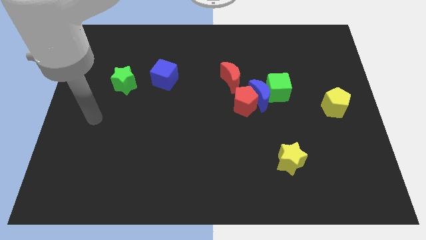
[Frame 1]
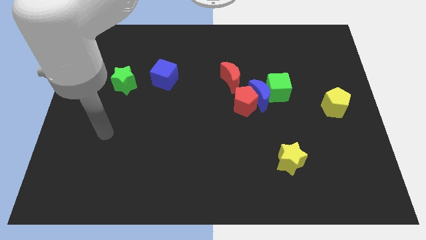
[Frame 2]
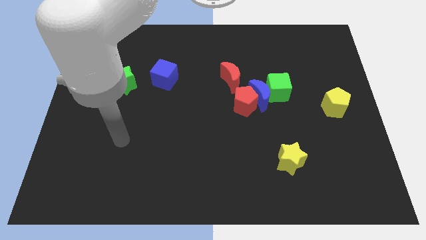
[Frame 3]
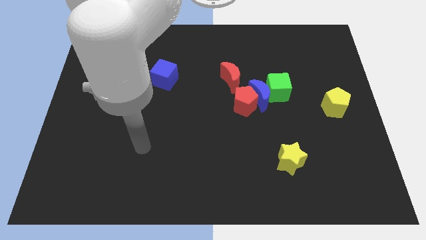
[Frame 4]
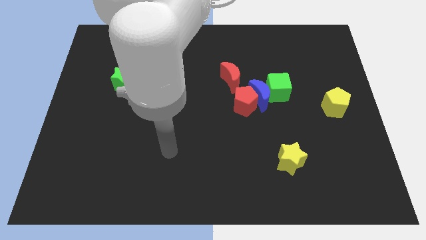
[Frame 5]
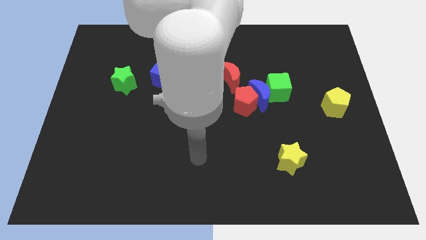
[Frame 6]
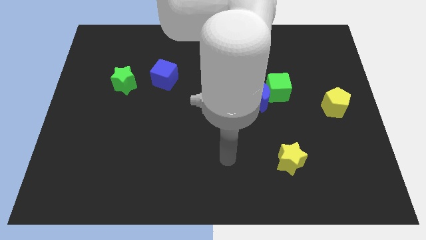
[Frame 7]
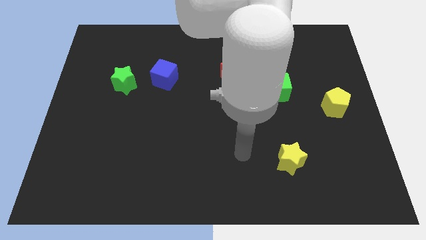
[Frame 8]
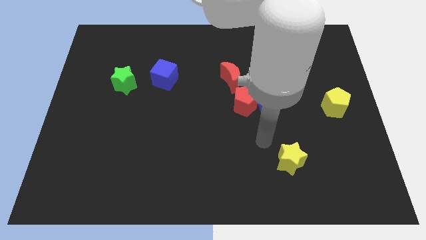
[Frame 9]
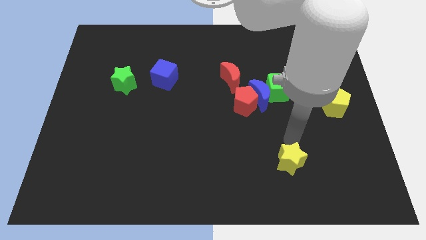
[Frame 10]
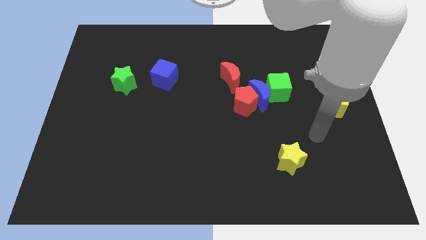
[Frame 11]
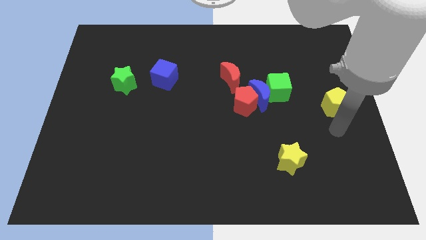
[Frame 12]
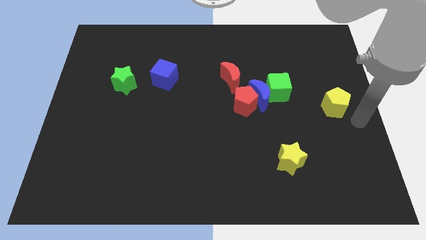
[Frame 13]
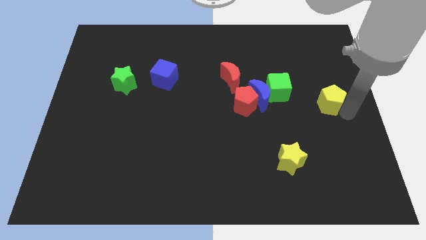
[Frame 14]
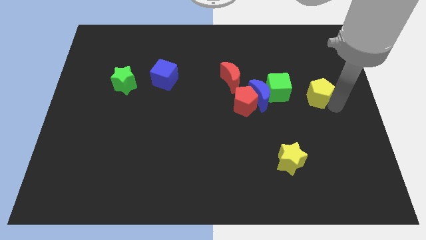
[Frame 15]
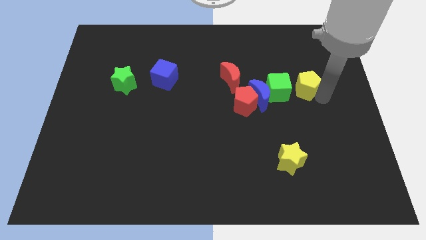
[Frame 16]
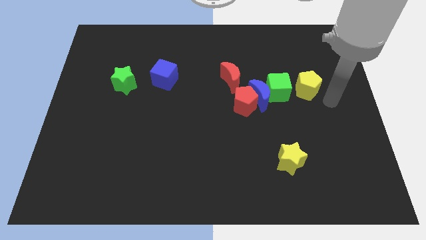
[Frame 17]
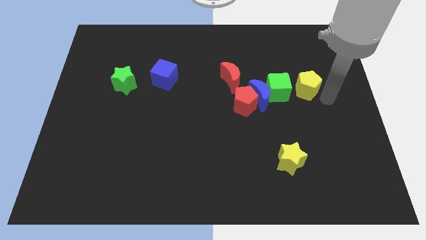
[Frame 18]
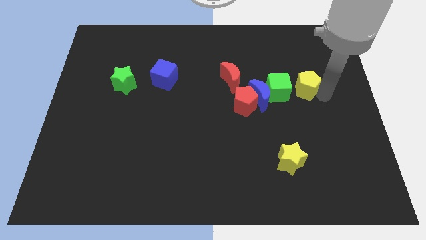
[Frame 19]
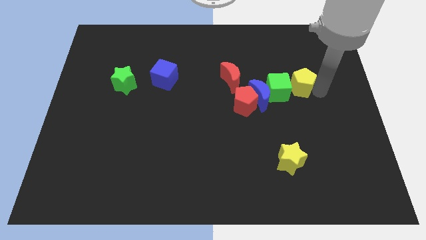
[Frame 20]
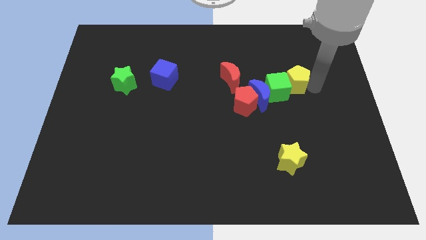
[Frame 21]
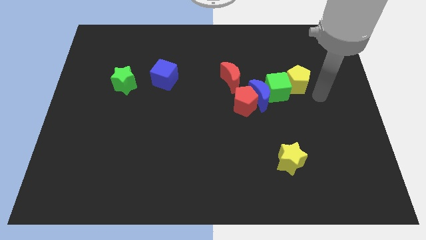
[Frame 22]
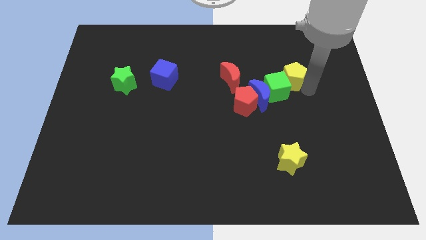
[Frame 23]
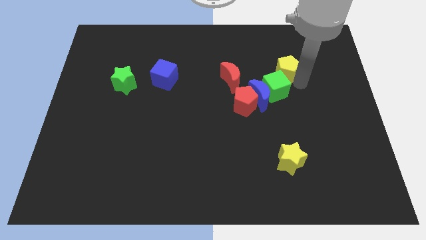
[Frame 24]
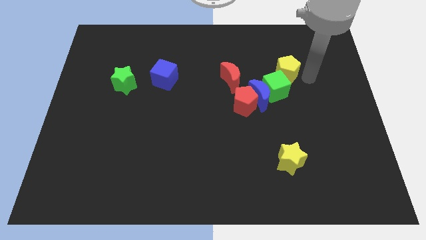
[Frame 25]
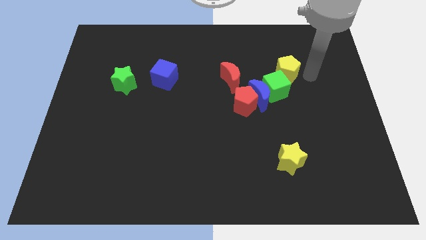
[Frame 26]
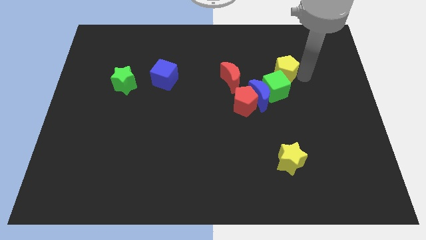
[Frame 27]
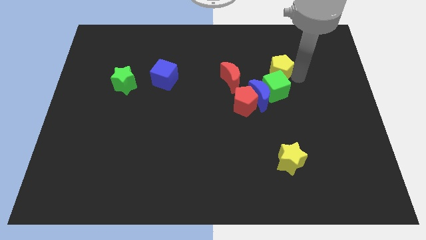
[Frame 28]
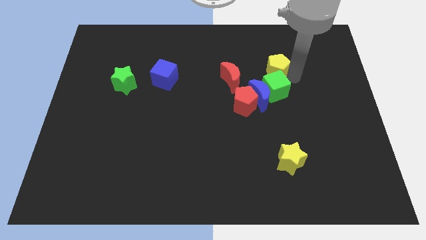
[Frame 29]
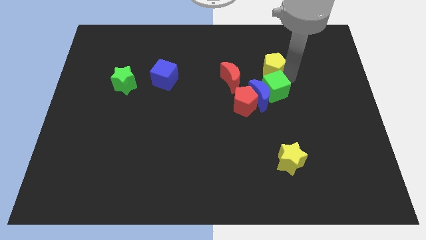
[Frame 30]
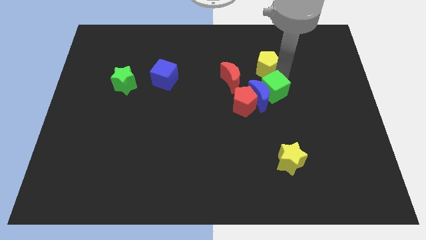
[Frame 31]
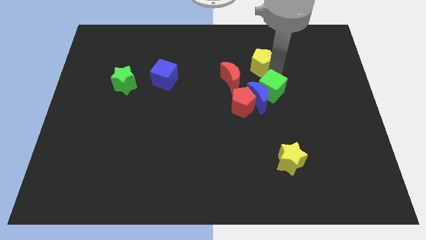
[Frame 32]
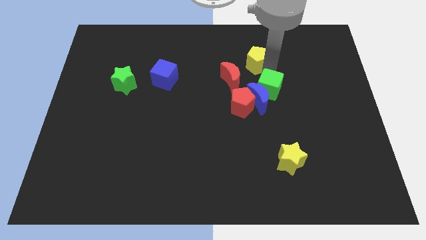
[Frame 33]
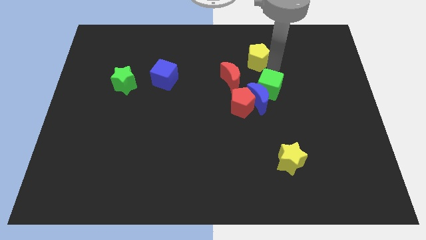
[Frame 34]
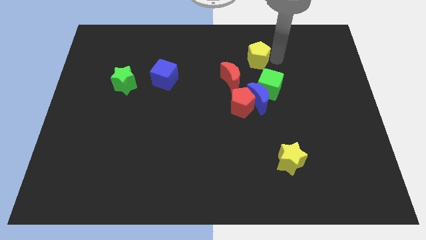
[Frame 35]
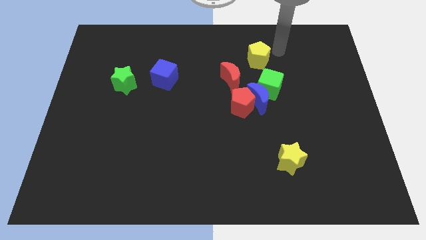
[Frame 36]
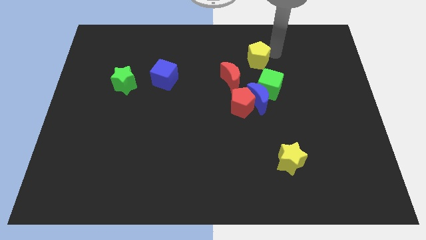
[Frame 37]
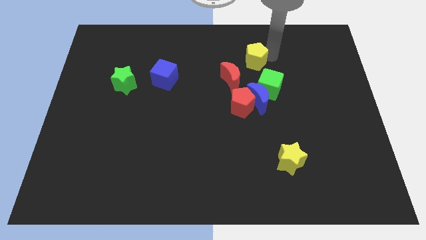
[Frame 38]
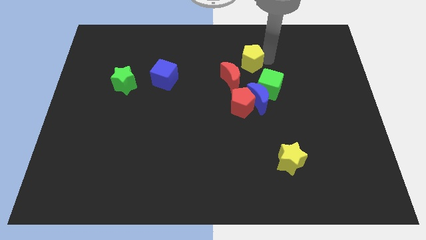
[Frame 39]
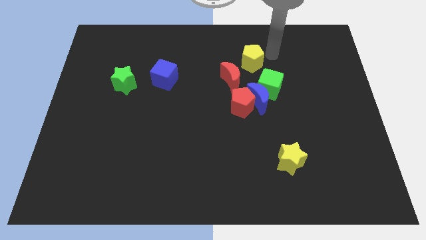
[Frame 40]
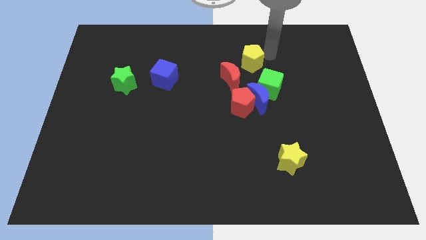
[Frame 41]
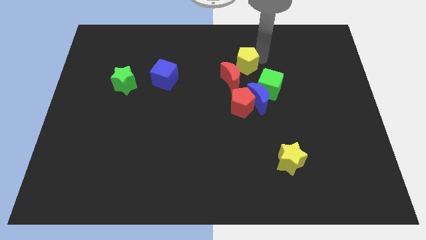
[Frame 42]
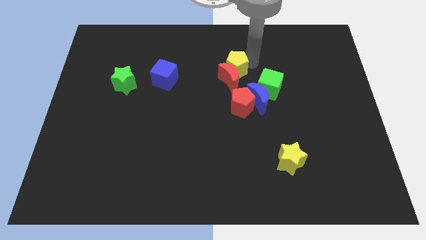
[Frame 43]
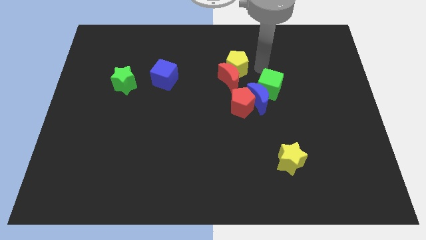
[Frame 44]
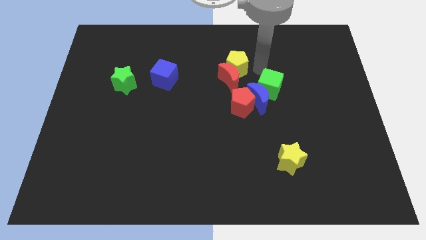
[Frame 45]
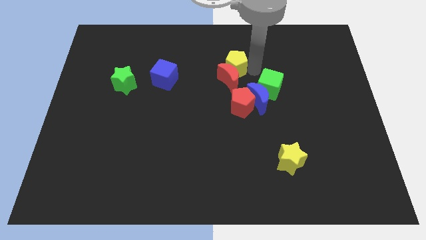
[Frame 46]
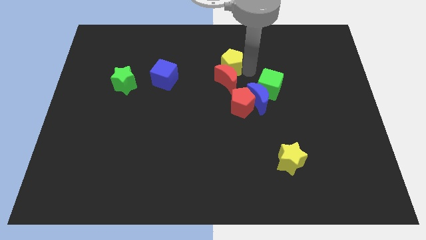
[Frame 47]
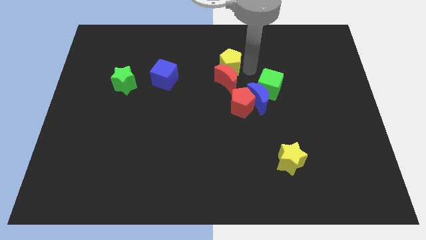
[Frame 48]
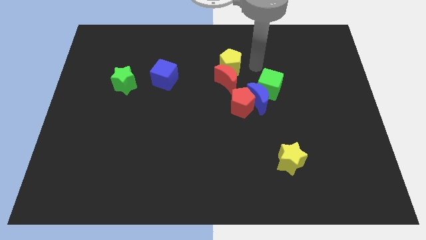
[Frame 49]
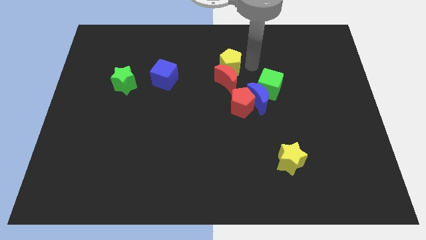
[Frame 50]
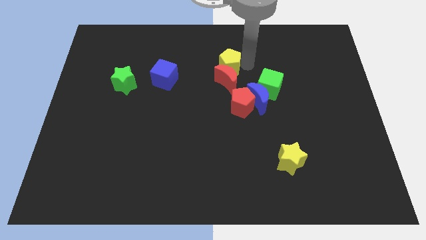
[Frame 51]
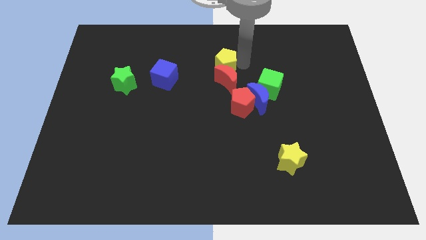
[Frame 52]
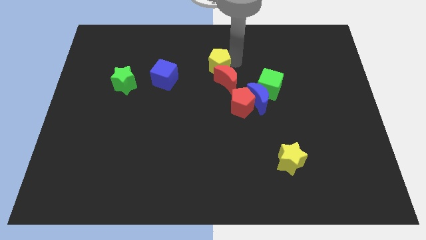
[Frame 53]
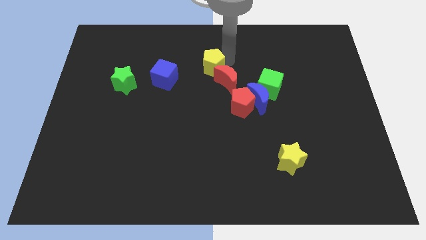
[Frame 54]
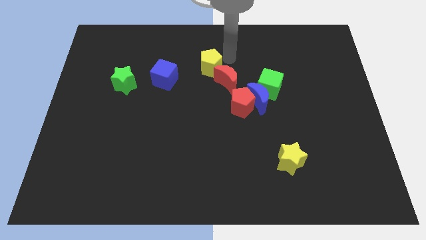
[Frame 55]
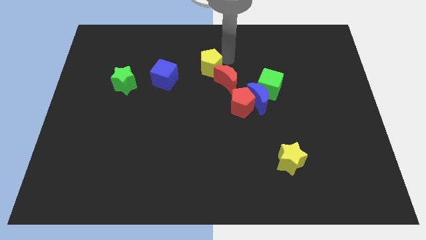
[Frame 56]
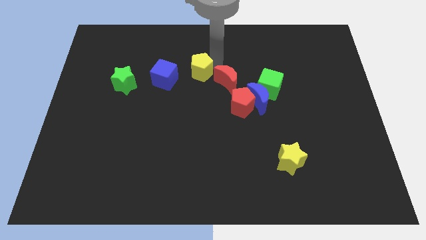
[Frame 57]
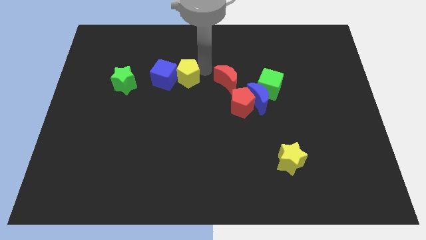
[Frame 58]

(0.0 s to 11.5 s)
slide the yellow pentagon next to the blue cube

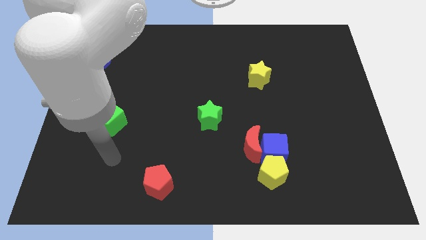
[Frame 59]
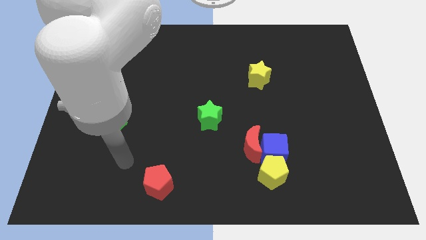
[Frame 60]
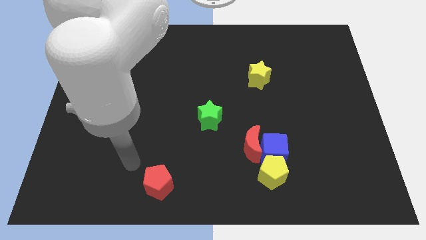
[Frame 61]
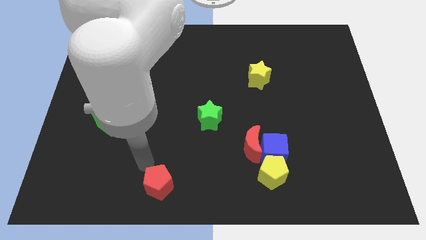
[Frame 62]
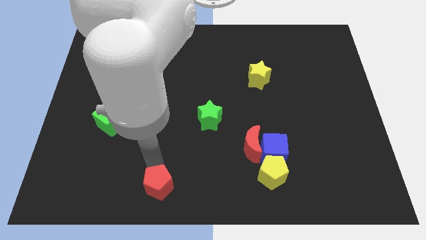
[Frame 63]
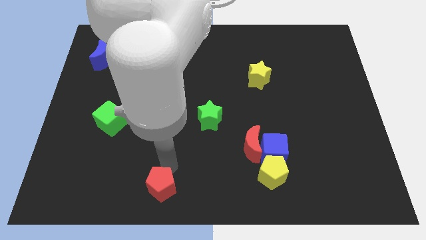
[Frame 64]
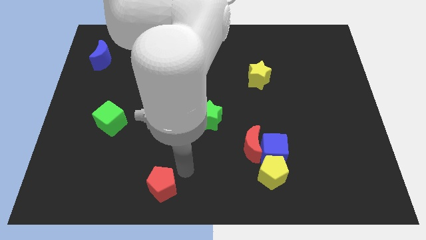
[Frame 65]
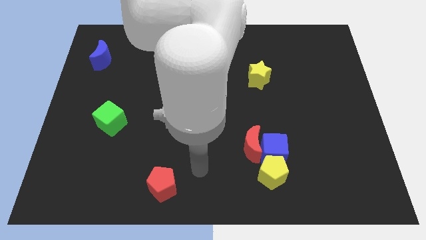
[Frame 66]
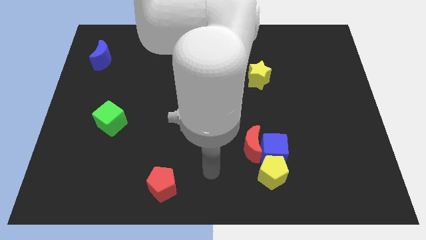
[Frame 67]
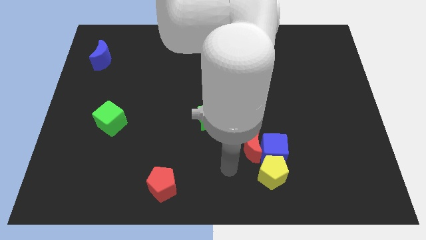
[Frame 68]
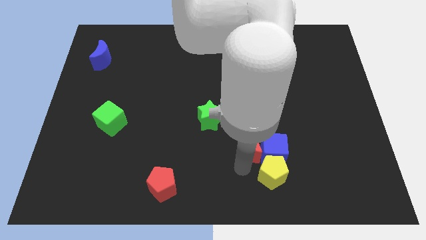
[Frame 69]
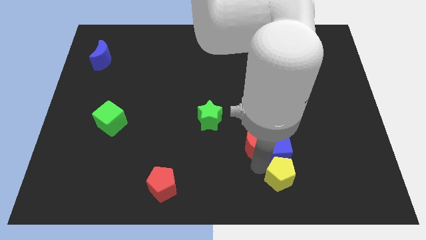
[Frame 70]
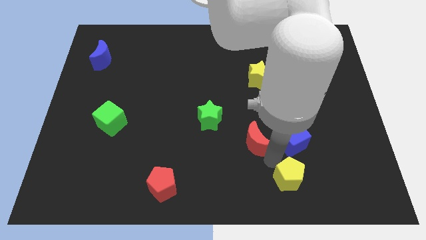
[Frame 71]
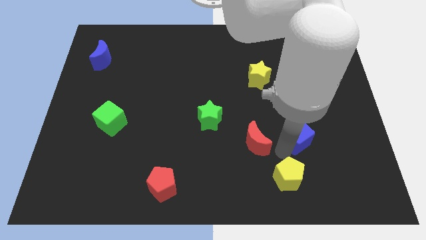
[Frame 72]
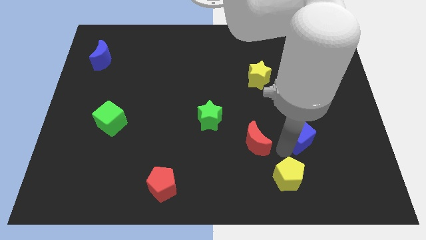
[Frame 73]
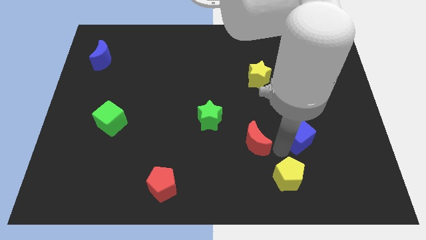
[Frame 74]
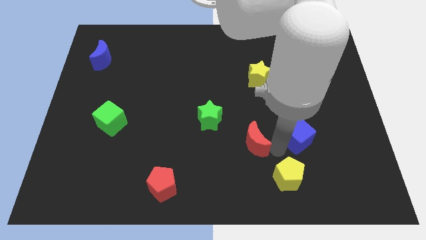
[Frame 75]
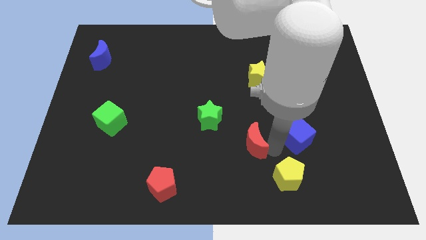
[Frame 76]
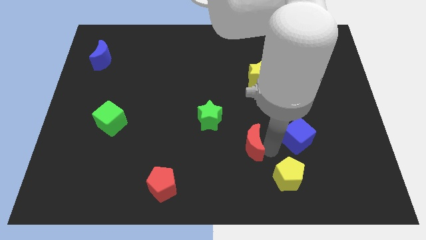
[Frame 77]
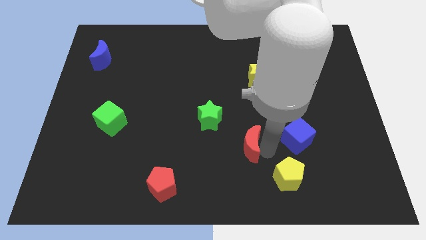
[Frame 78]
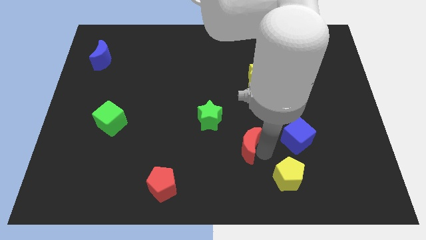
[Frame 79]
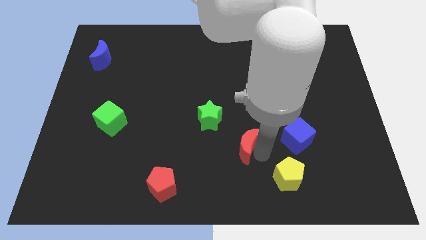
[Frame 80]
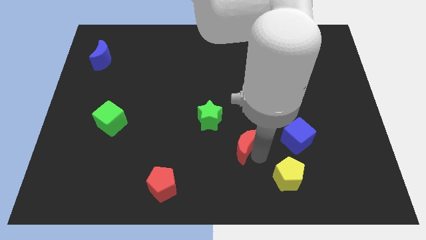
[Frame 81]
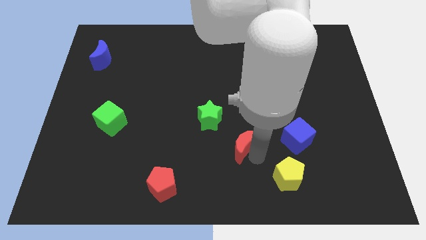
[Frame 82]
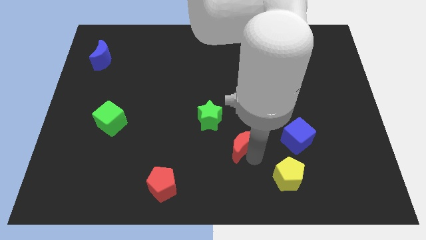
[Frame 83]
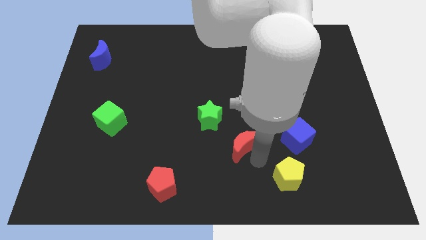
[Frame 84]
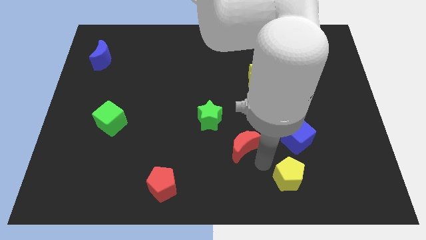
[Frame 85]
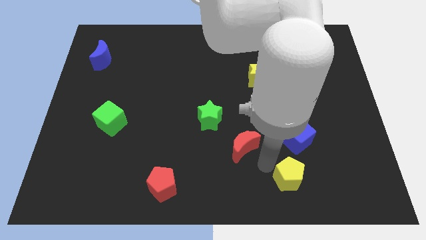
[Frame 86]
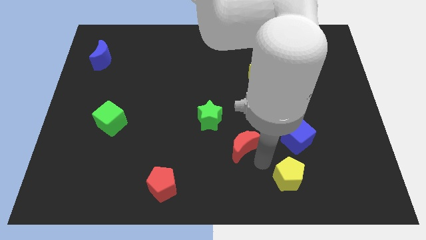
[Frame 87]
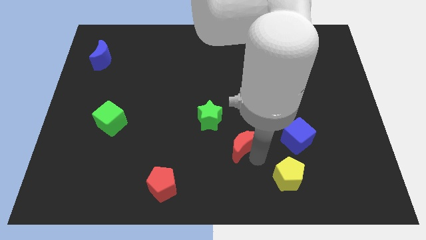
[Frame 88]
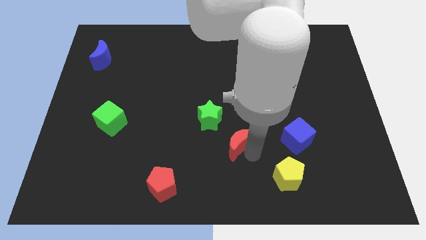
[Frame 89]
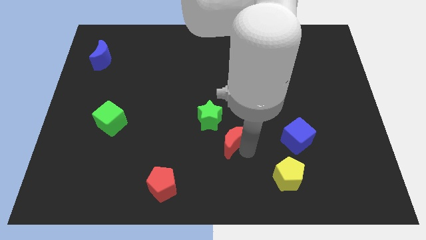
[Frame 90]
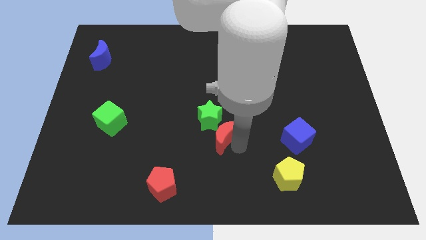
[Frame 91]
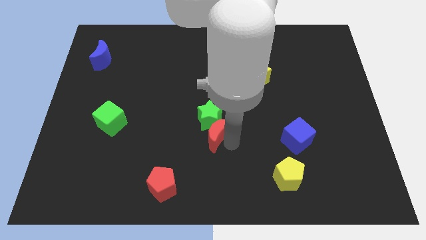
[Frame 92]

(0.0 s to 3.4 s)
put the red moon towards the green star
